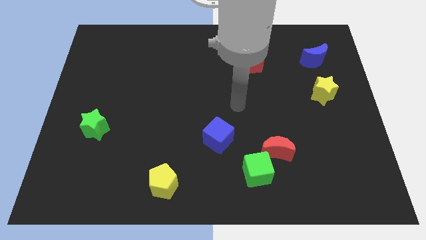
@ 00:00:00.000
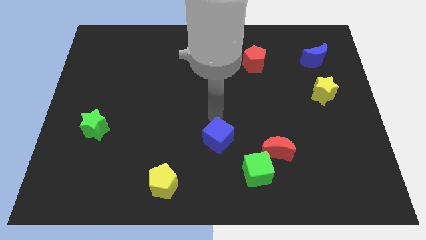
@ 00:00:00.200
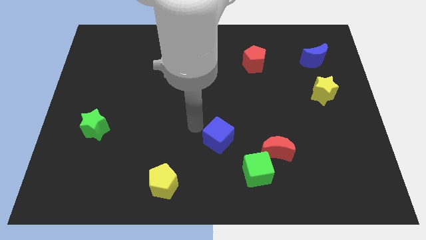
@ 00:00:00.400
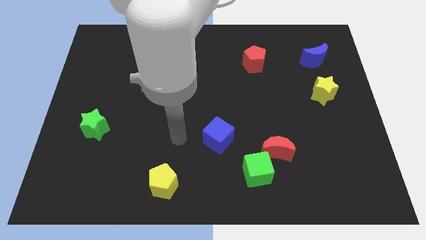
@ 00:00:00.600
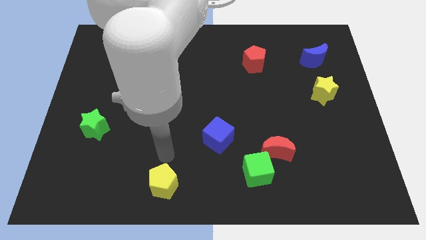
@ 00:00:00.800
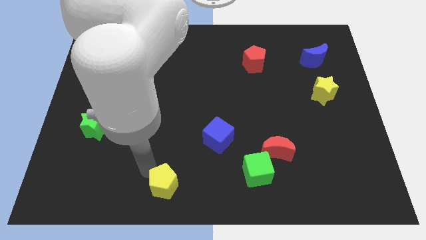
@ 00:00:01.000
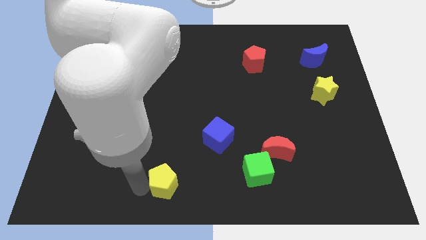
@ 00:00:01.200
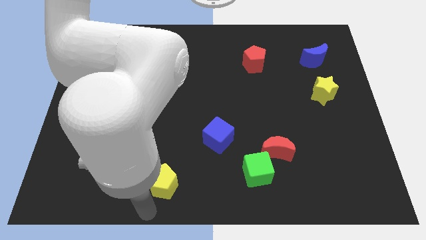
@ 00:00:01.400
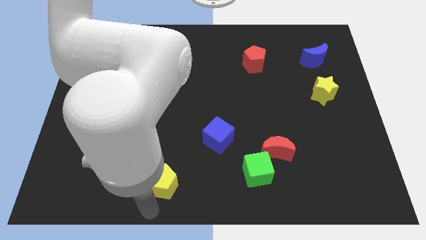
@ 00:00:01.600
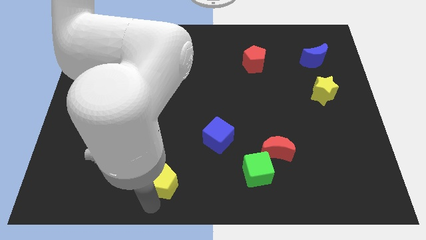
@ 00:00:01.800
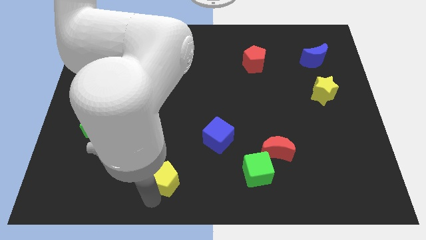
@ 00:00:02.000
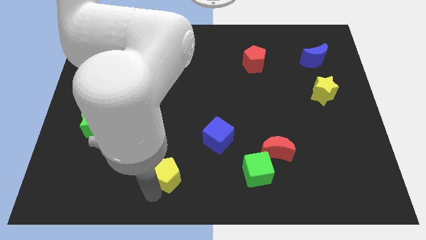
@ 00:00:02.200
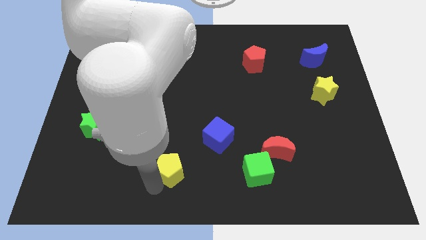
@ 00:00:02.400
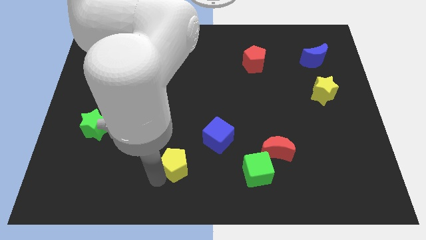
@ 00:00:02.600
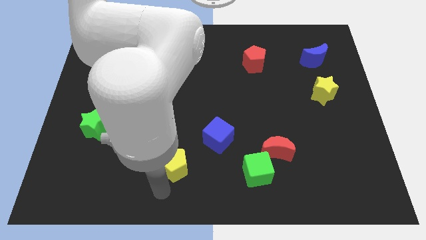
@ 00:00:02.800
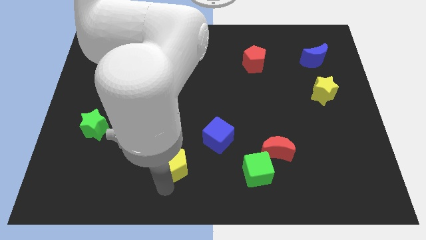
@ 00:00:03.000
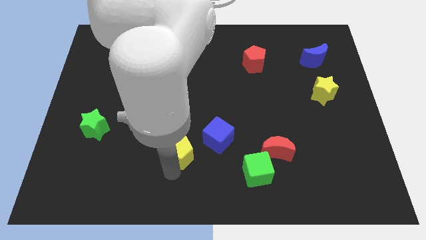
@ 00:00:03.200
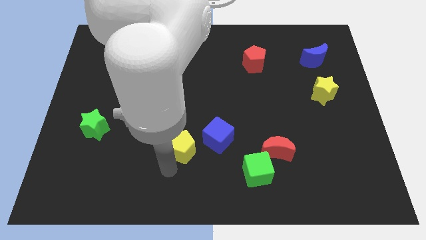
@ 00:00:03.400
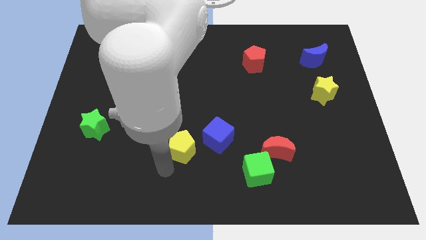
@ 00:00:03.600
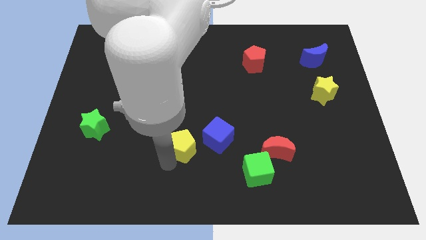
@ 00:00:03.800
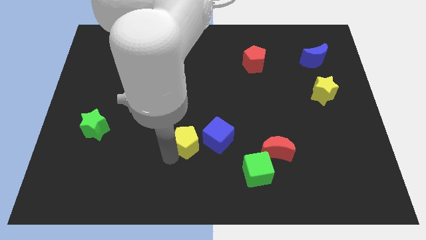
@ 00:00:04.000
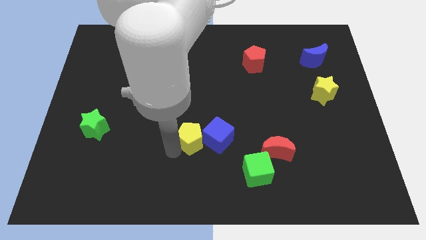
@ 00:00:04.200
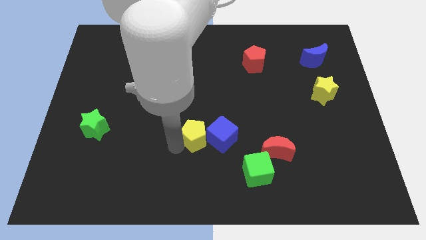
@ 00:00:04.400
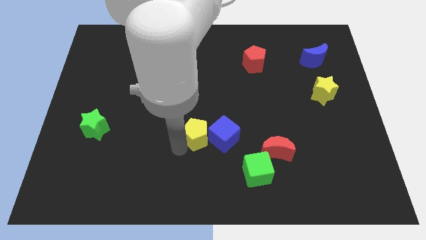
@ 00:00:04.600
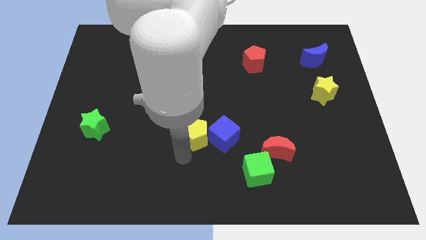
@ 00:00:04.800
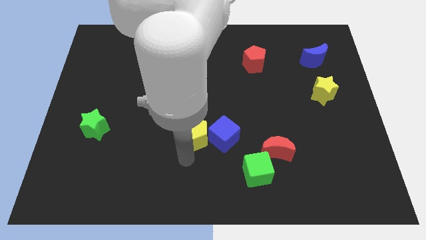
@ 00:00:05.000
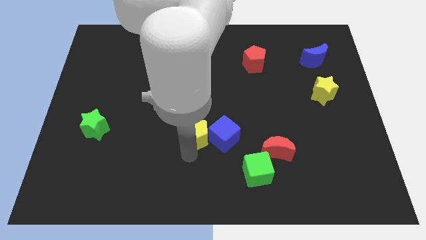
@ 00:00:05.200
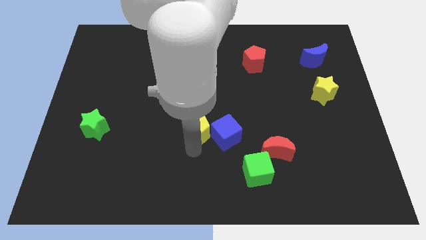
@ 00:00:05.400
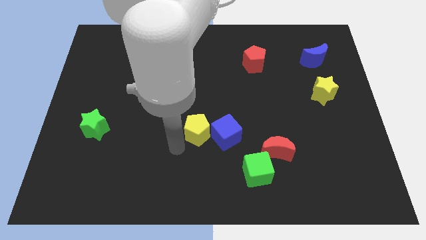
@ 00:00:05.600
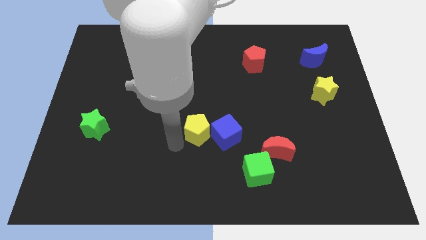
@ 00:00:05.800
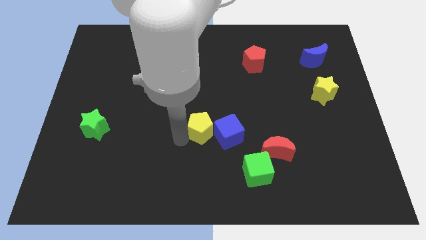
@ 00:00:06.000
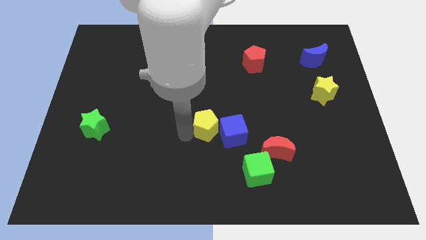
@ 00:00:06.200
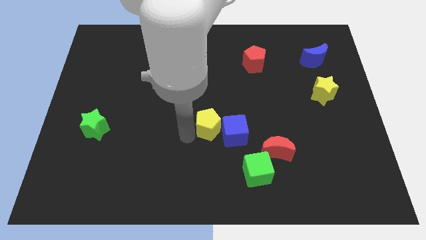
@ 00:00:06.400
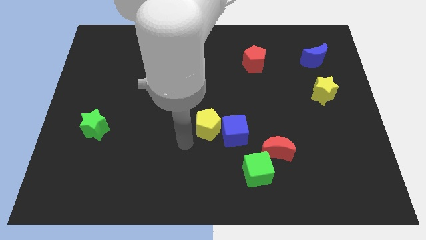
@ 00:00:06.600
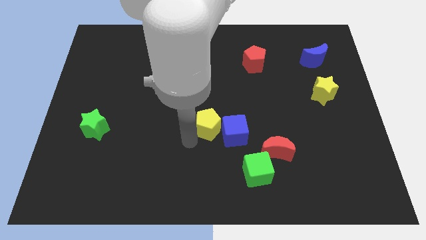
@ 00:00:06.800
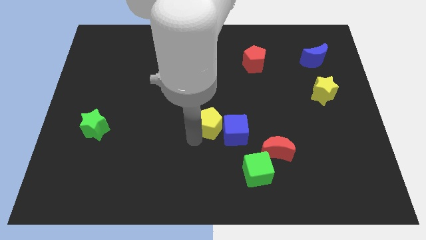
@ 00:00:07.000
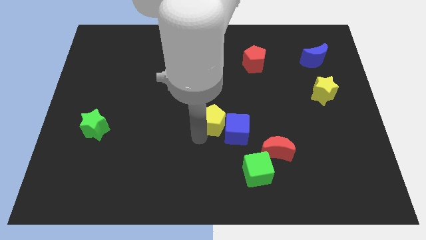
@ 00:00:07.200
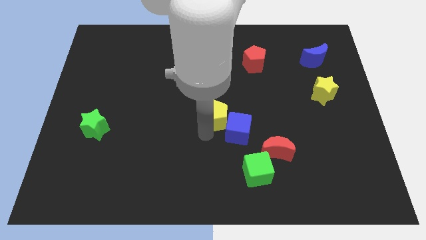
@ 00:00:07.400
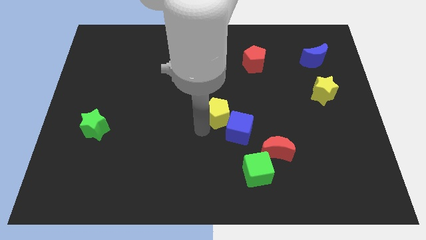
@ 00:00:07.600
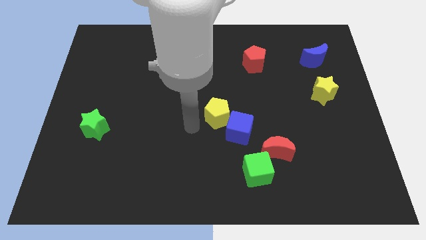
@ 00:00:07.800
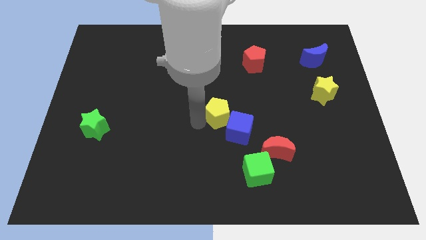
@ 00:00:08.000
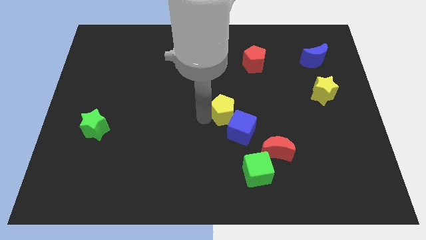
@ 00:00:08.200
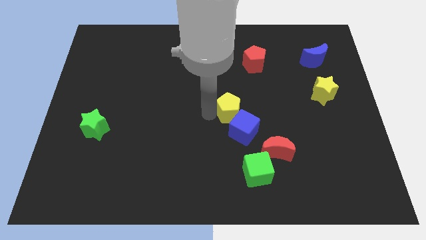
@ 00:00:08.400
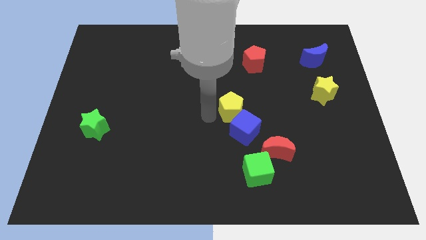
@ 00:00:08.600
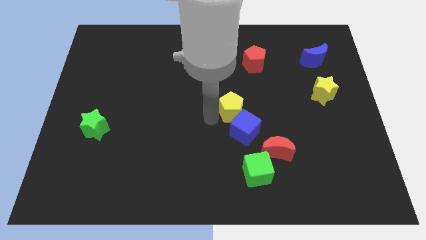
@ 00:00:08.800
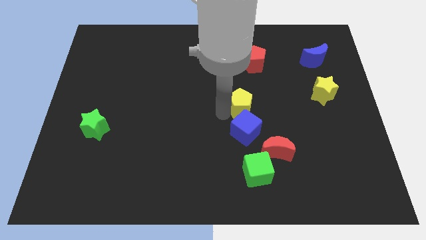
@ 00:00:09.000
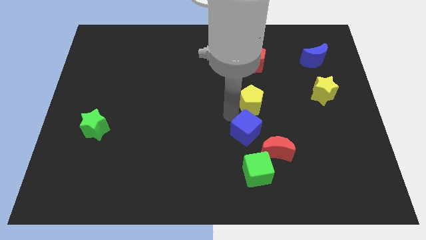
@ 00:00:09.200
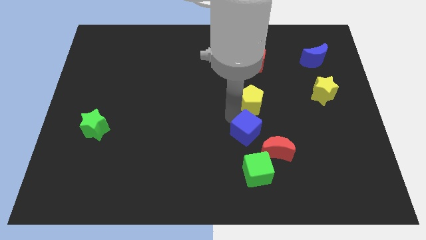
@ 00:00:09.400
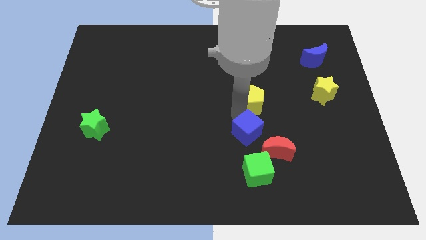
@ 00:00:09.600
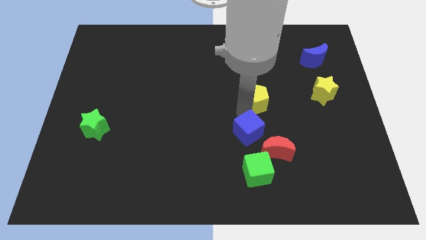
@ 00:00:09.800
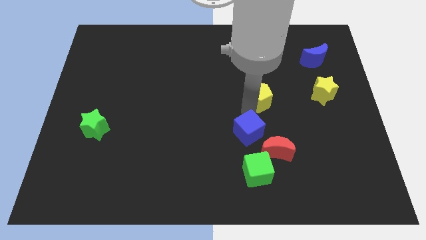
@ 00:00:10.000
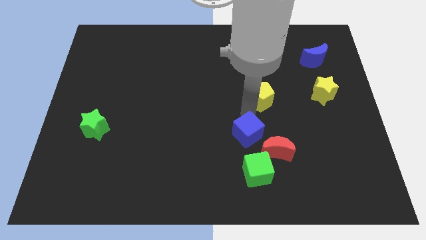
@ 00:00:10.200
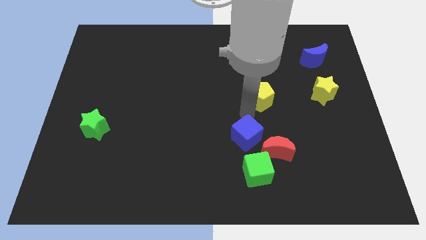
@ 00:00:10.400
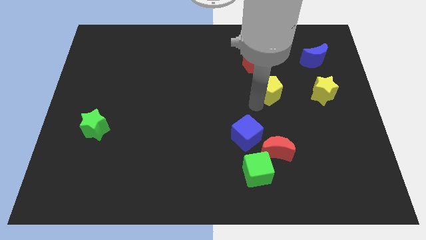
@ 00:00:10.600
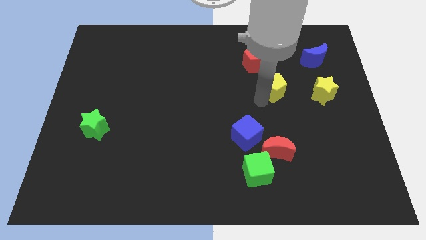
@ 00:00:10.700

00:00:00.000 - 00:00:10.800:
push the yellow pentagon to the bottom right side of the red pentagon

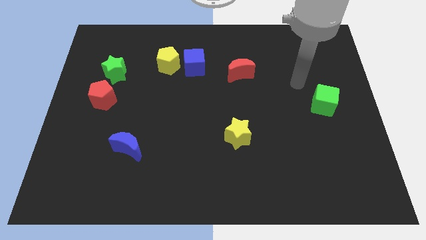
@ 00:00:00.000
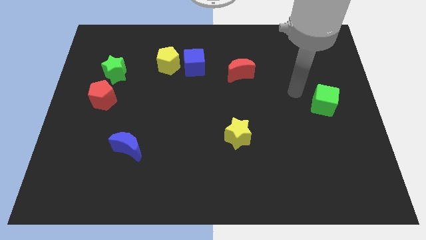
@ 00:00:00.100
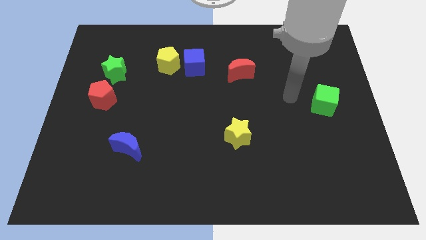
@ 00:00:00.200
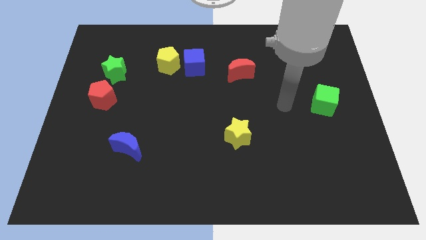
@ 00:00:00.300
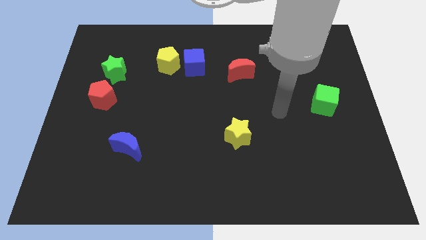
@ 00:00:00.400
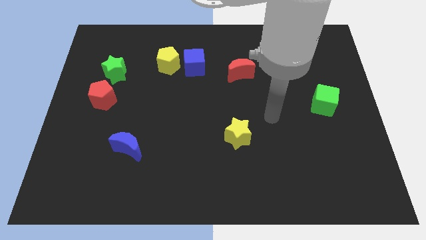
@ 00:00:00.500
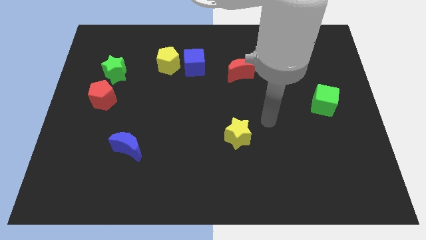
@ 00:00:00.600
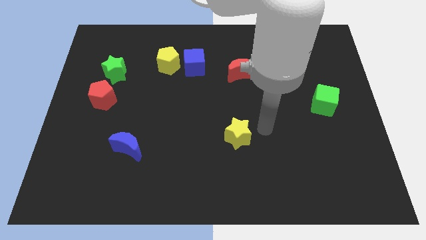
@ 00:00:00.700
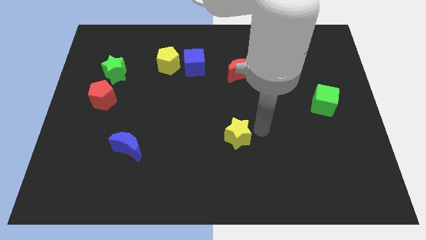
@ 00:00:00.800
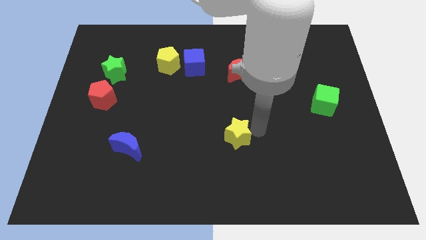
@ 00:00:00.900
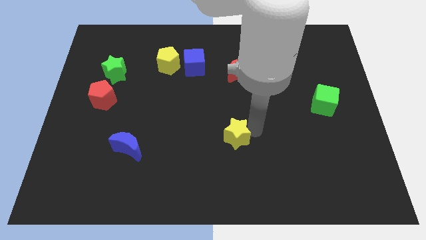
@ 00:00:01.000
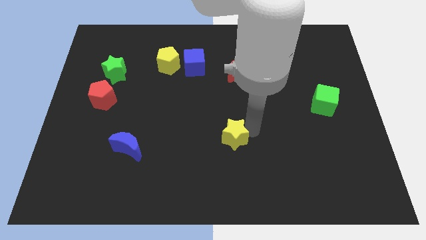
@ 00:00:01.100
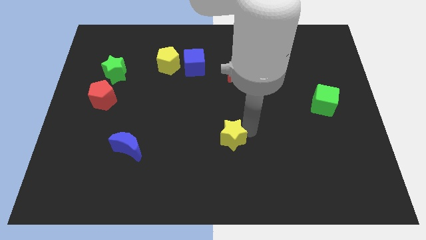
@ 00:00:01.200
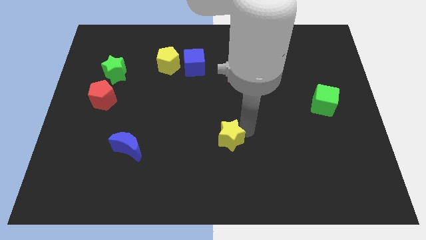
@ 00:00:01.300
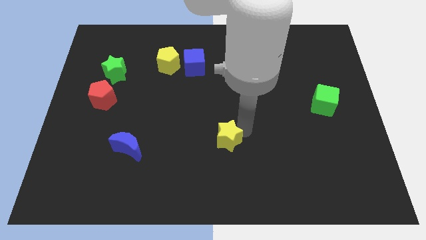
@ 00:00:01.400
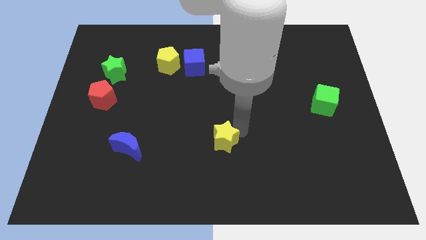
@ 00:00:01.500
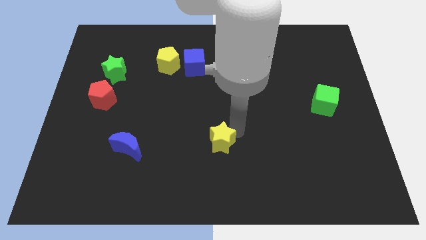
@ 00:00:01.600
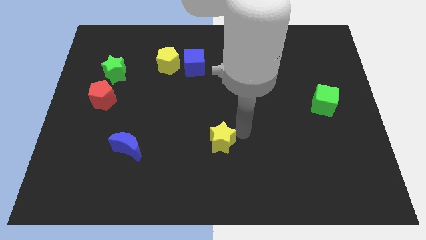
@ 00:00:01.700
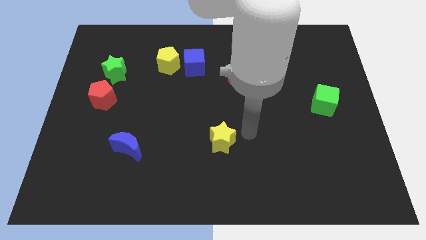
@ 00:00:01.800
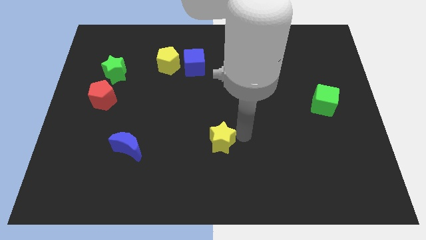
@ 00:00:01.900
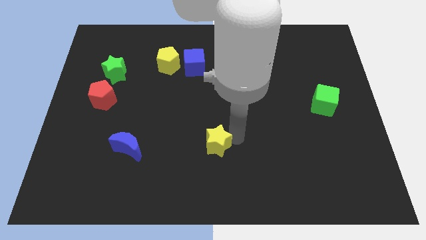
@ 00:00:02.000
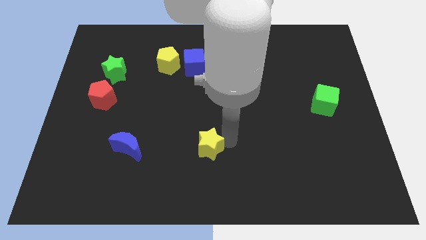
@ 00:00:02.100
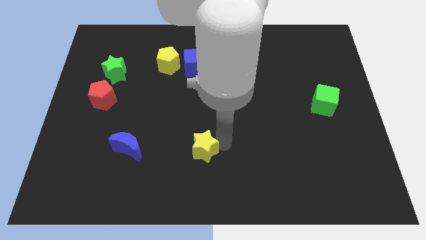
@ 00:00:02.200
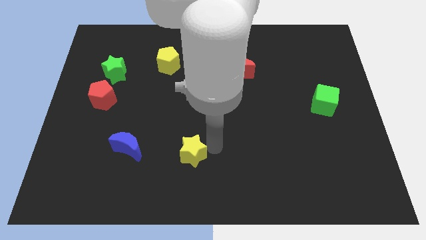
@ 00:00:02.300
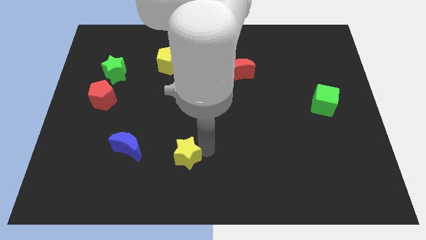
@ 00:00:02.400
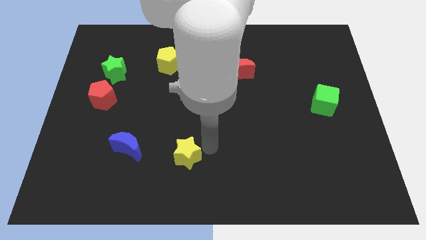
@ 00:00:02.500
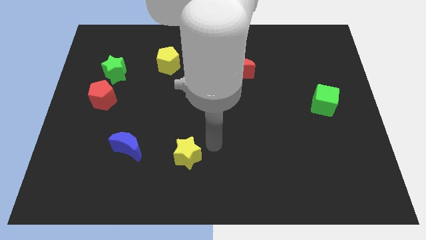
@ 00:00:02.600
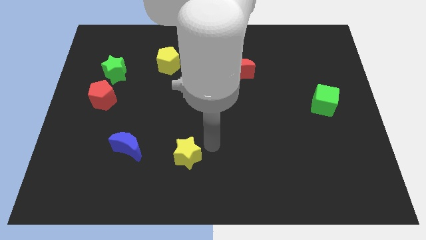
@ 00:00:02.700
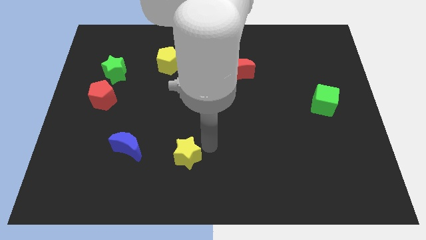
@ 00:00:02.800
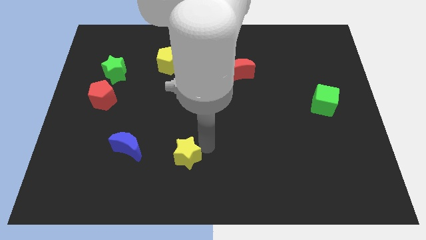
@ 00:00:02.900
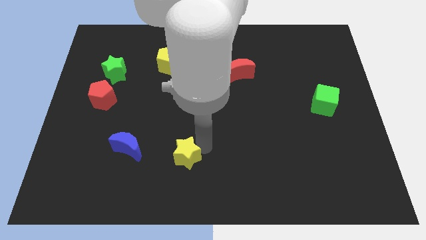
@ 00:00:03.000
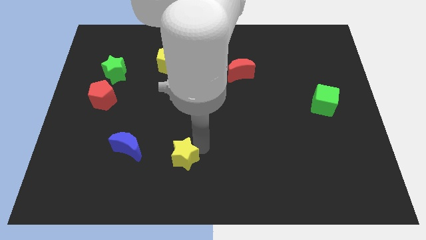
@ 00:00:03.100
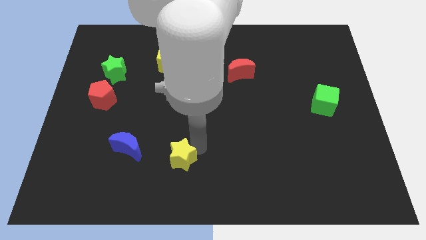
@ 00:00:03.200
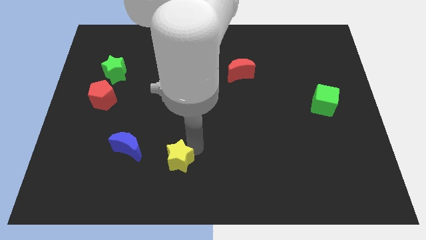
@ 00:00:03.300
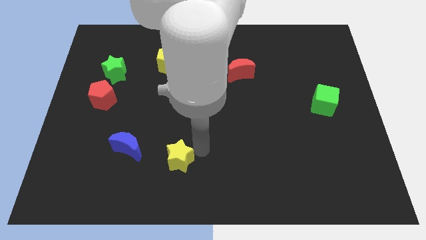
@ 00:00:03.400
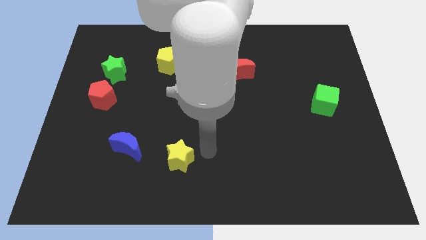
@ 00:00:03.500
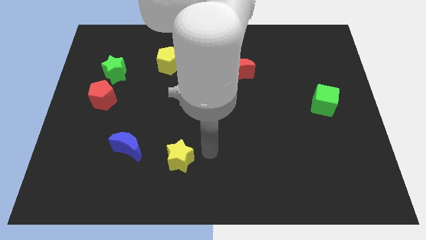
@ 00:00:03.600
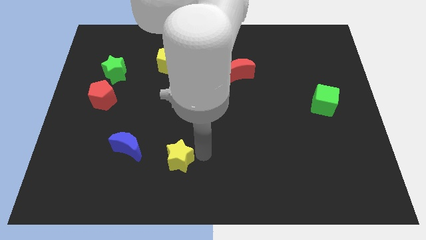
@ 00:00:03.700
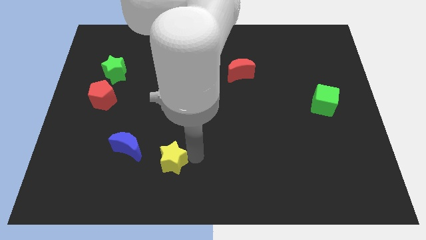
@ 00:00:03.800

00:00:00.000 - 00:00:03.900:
move the yellow star diagonally down and to the right of the blue moon
